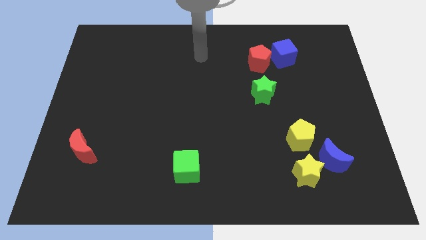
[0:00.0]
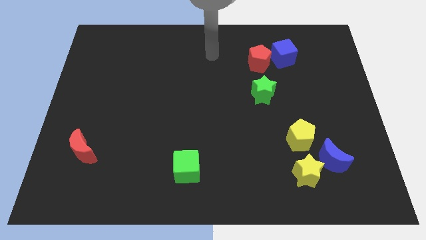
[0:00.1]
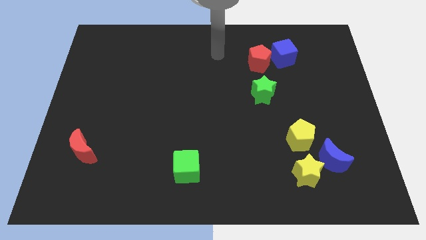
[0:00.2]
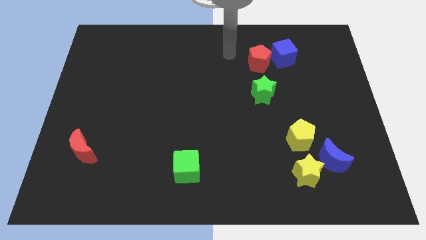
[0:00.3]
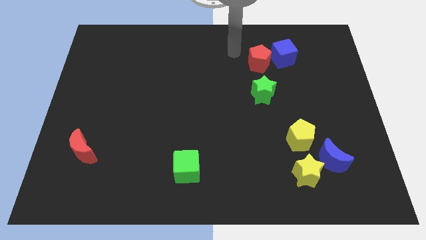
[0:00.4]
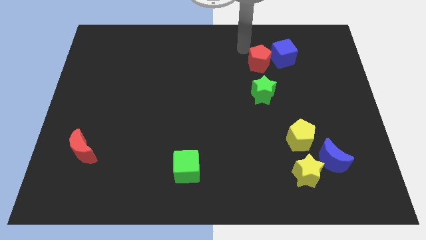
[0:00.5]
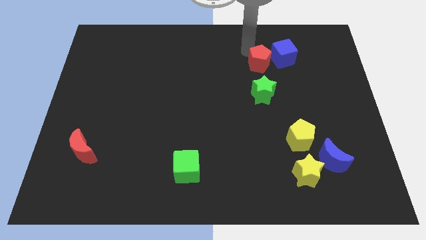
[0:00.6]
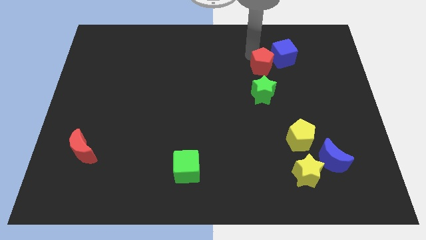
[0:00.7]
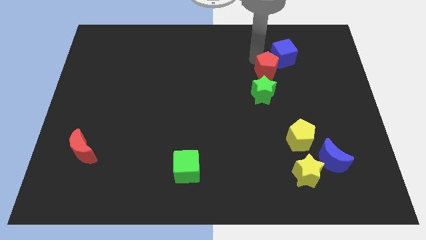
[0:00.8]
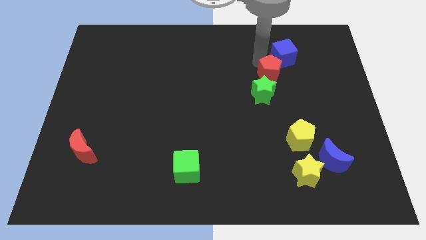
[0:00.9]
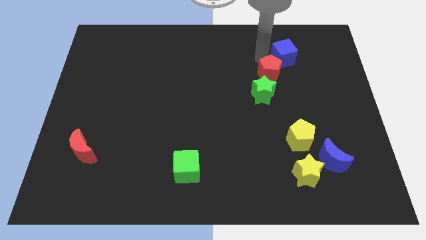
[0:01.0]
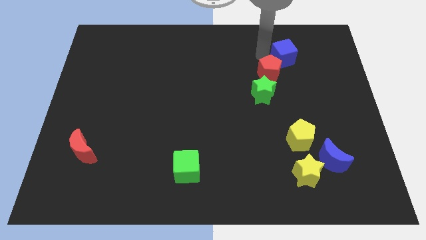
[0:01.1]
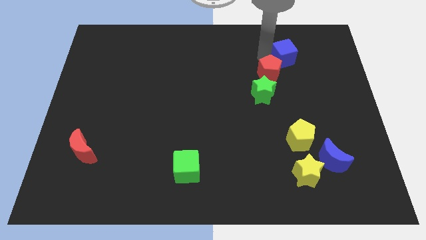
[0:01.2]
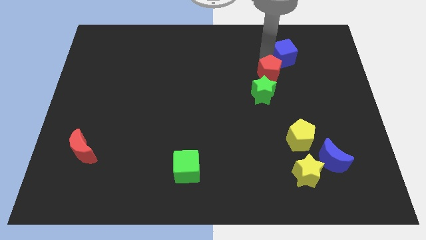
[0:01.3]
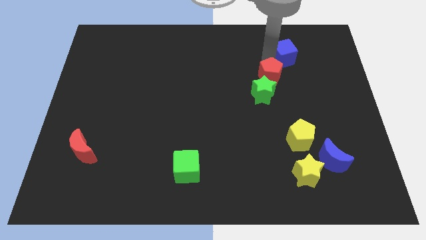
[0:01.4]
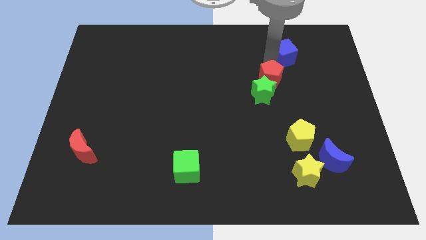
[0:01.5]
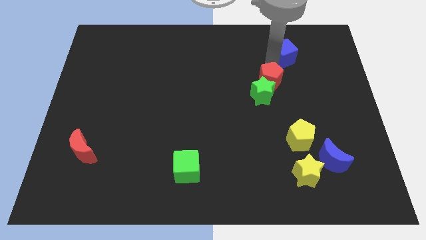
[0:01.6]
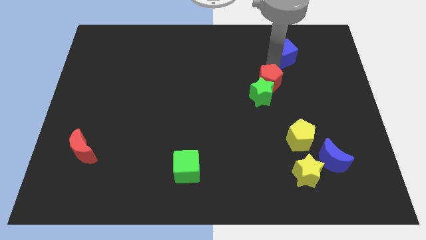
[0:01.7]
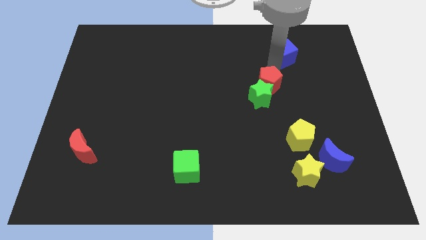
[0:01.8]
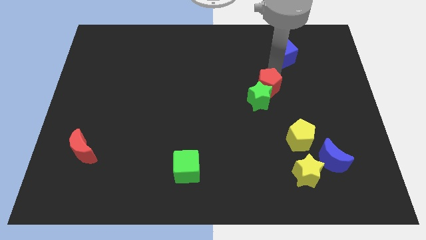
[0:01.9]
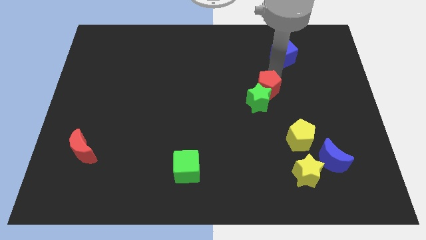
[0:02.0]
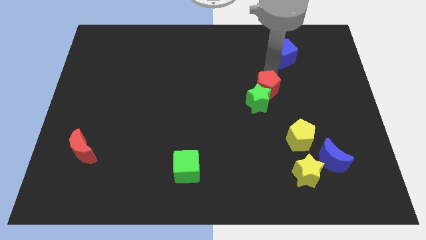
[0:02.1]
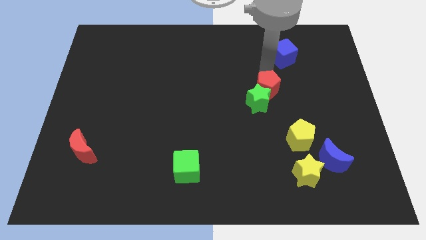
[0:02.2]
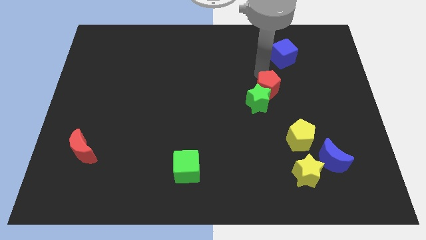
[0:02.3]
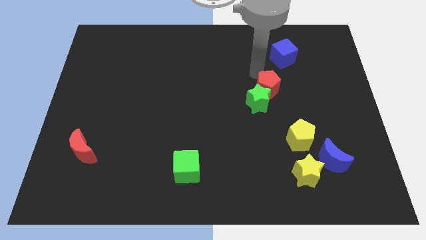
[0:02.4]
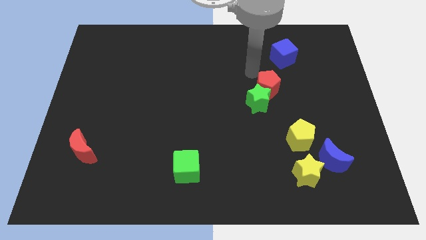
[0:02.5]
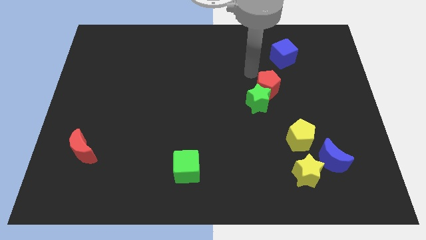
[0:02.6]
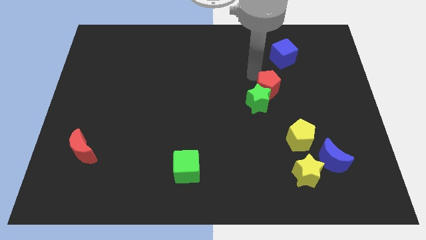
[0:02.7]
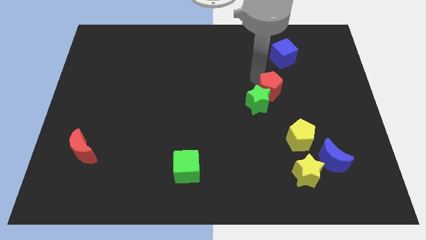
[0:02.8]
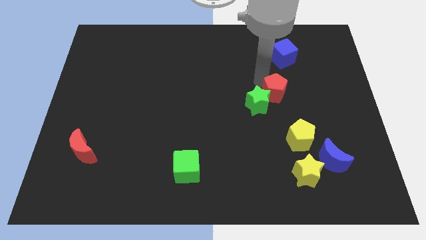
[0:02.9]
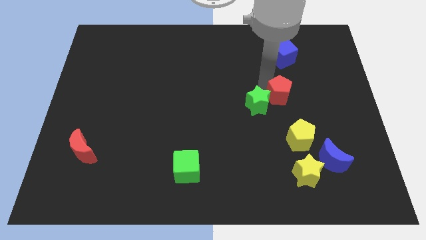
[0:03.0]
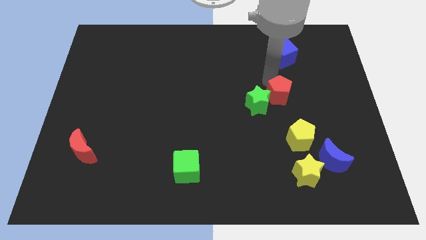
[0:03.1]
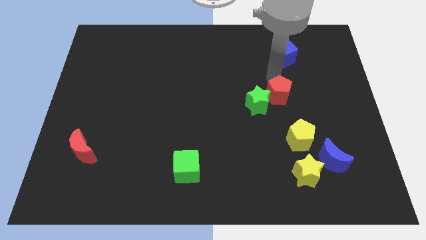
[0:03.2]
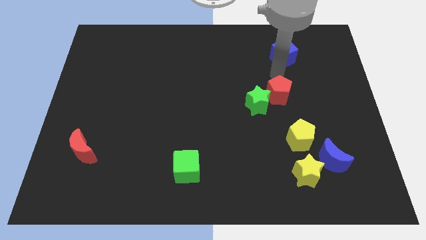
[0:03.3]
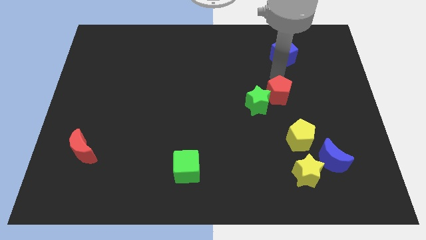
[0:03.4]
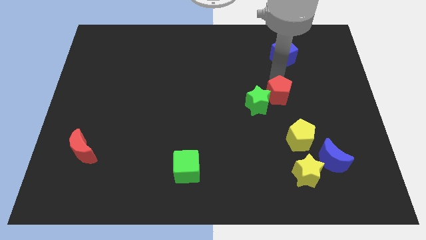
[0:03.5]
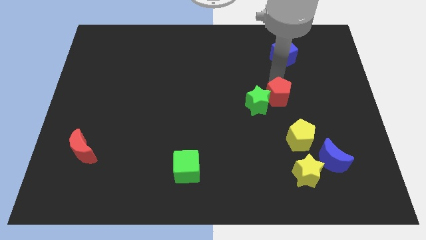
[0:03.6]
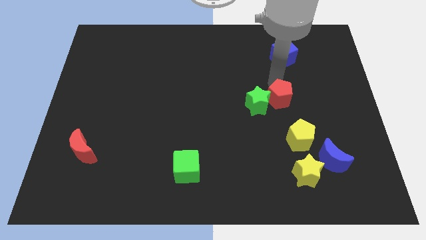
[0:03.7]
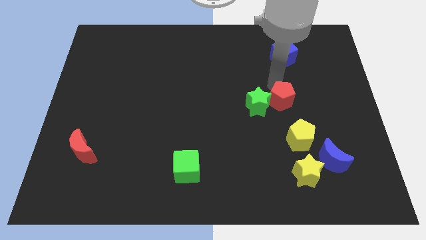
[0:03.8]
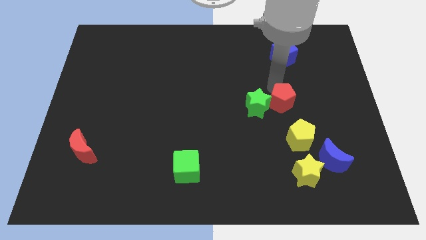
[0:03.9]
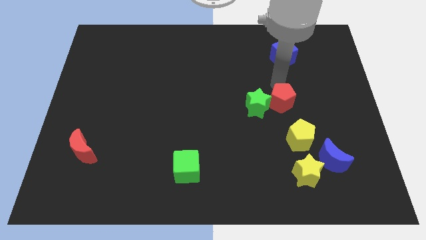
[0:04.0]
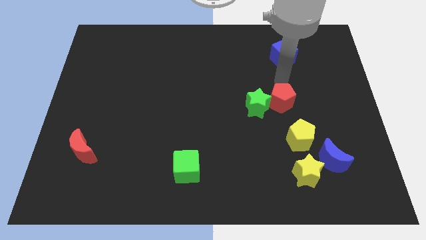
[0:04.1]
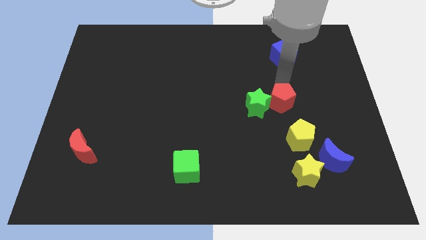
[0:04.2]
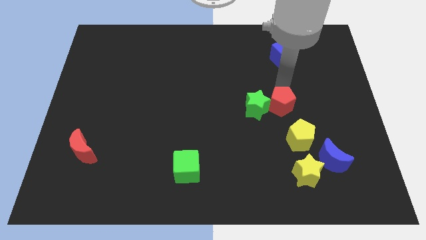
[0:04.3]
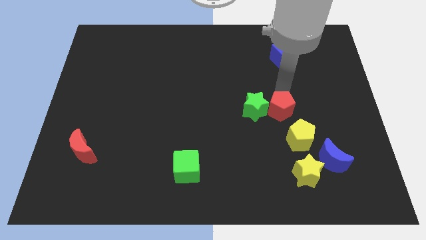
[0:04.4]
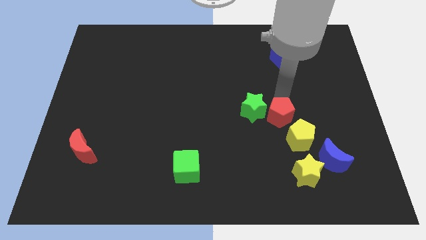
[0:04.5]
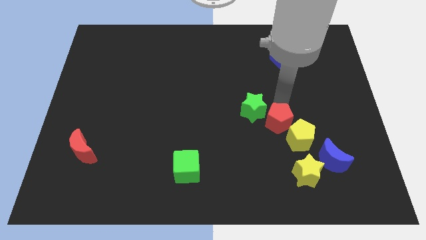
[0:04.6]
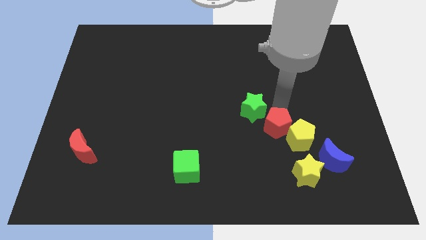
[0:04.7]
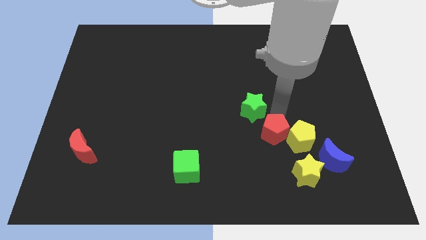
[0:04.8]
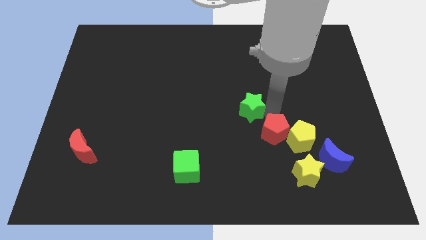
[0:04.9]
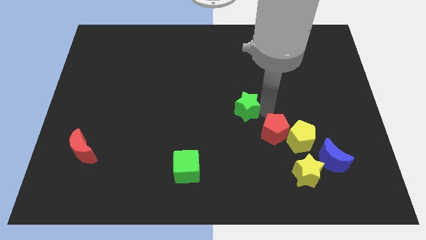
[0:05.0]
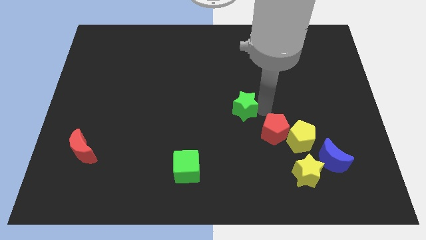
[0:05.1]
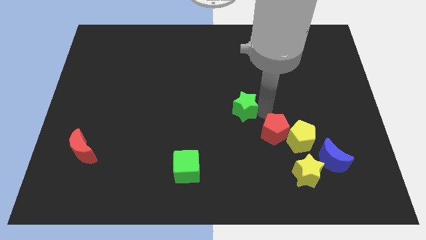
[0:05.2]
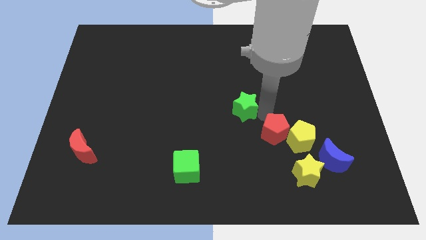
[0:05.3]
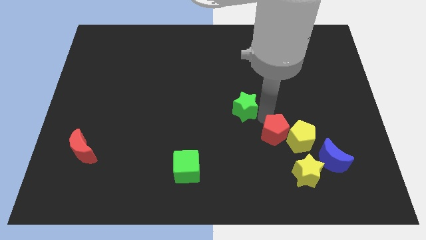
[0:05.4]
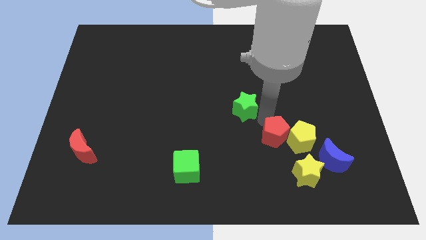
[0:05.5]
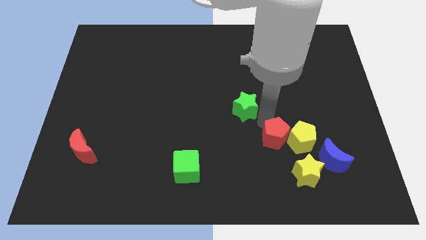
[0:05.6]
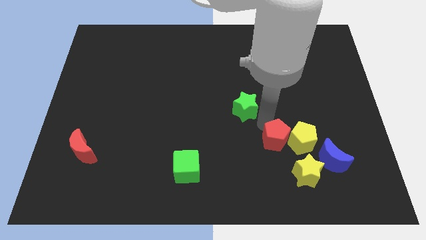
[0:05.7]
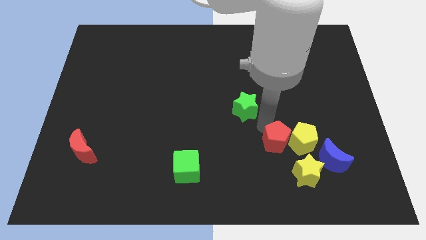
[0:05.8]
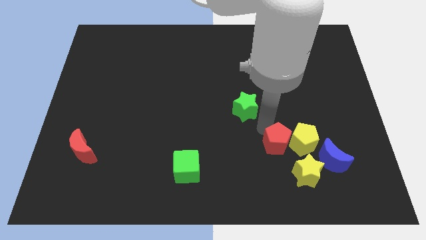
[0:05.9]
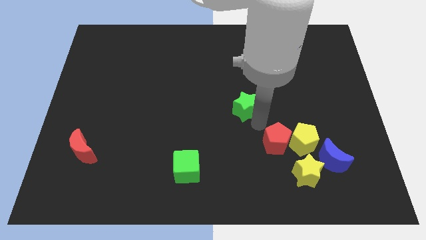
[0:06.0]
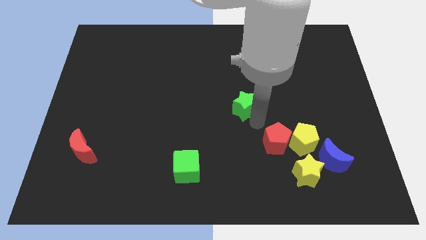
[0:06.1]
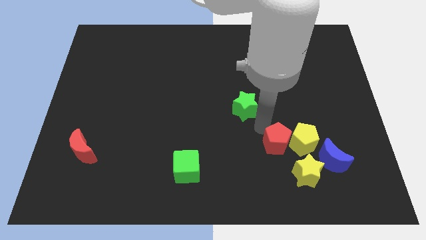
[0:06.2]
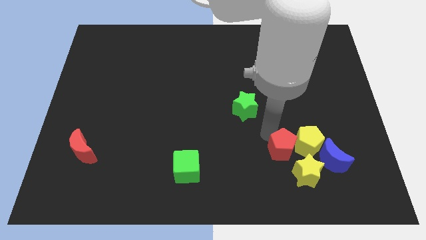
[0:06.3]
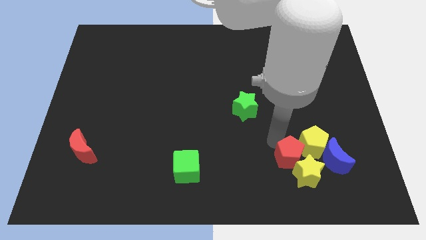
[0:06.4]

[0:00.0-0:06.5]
push the red pentagon to the yellow star

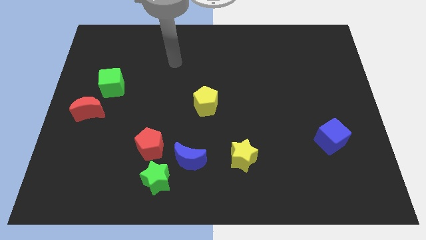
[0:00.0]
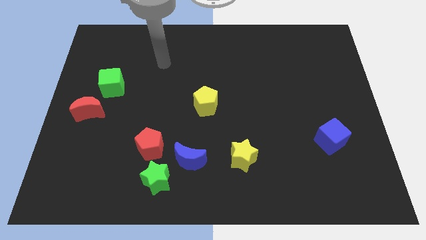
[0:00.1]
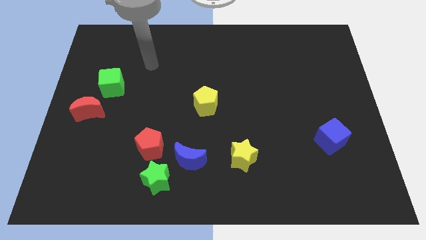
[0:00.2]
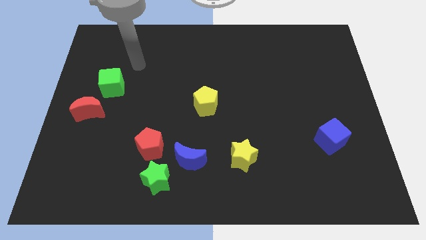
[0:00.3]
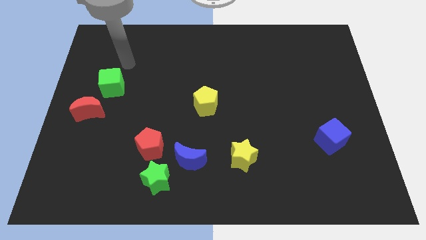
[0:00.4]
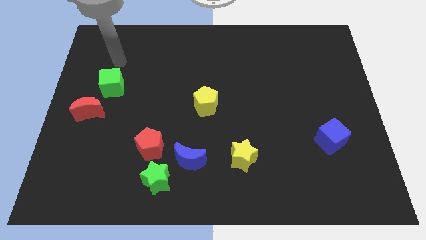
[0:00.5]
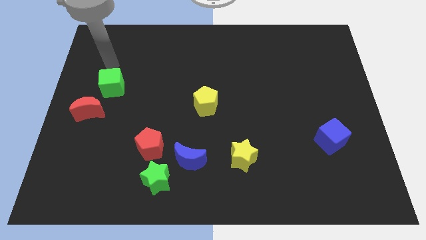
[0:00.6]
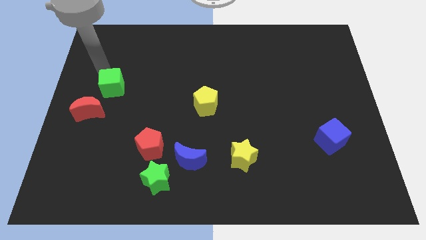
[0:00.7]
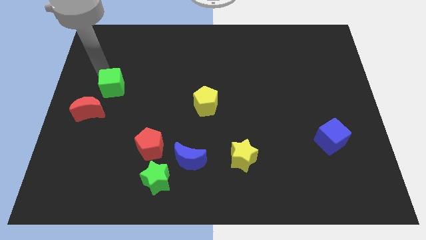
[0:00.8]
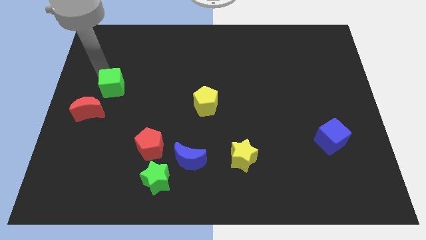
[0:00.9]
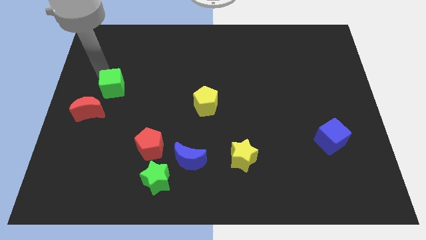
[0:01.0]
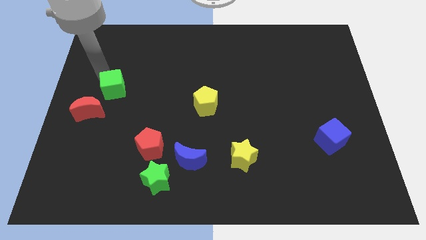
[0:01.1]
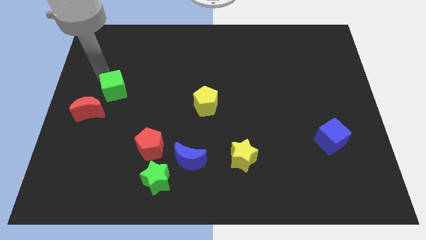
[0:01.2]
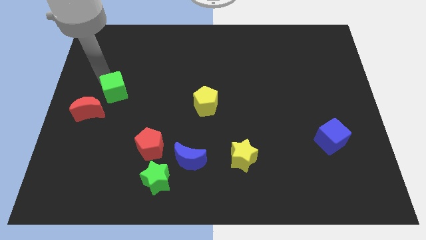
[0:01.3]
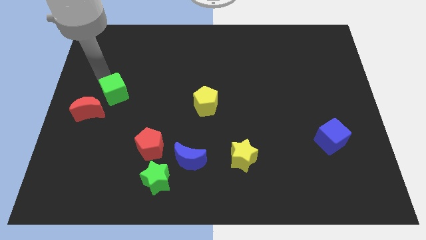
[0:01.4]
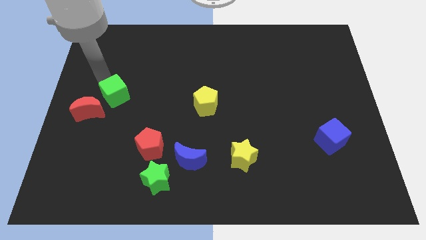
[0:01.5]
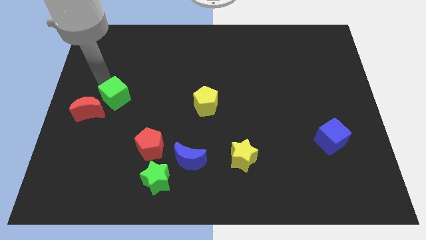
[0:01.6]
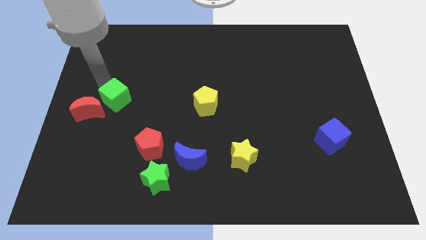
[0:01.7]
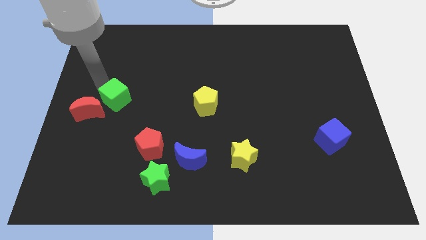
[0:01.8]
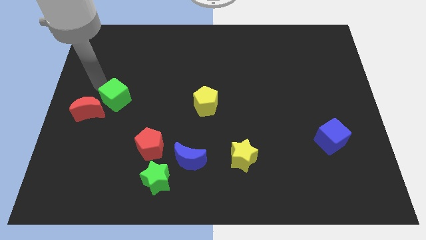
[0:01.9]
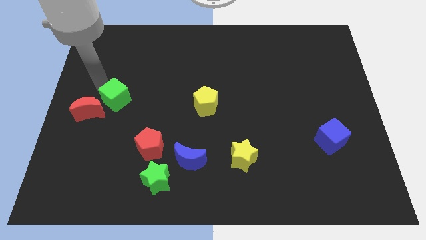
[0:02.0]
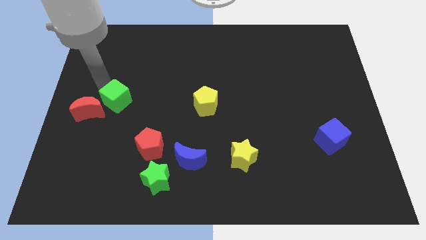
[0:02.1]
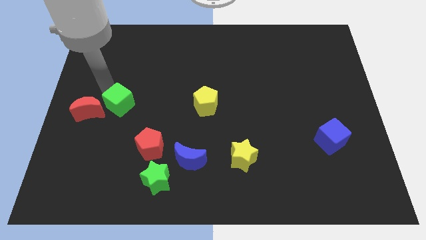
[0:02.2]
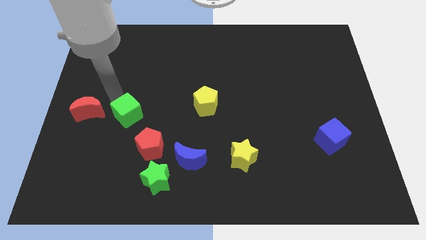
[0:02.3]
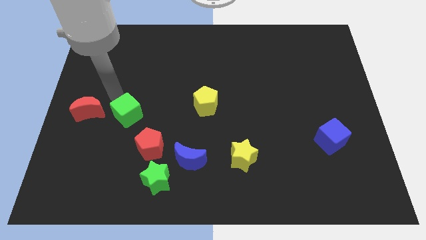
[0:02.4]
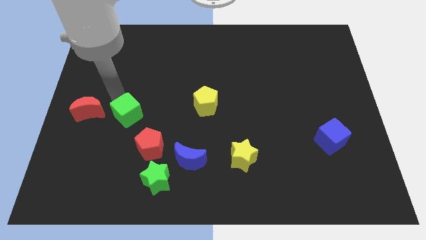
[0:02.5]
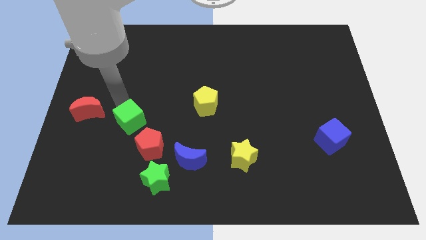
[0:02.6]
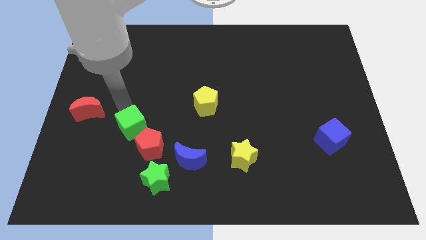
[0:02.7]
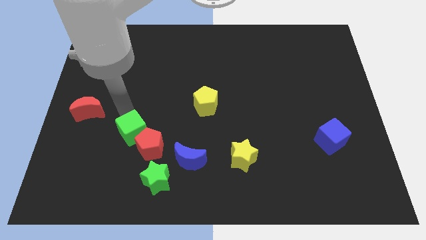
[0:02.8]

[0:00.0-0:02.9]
put the green cube next to the red pentagon
